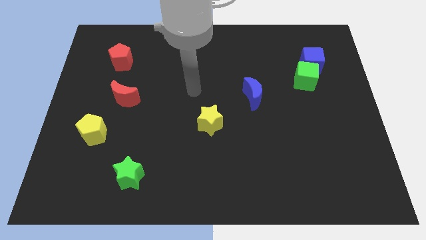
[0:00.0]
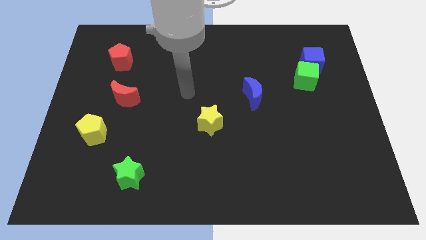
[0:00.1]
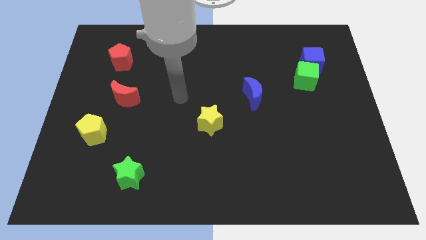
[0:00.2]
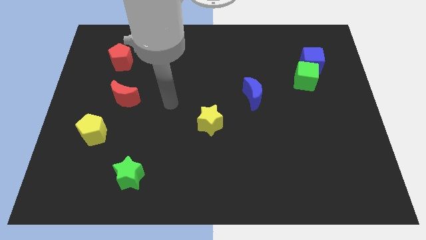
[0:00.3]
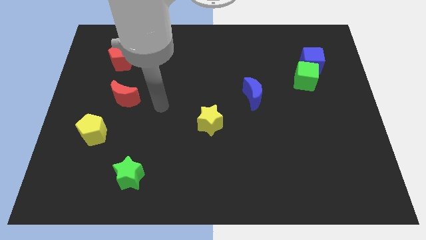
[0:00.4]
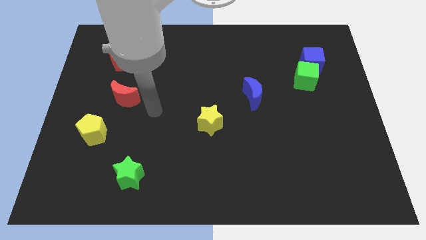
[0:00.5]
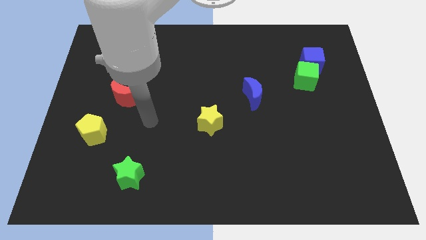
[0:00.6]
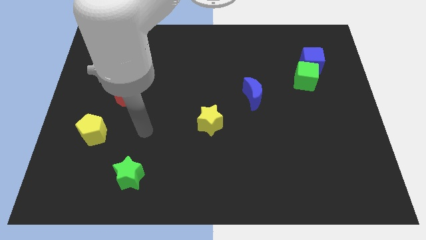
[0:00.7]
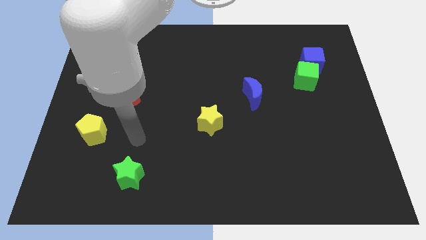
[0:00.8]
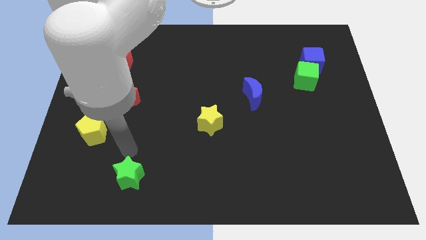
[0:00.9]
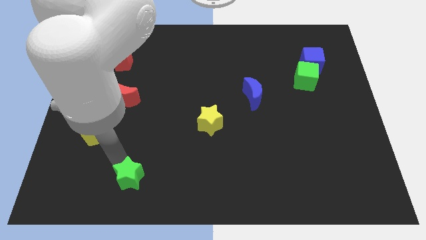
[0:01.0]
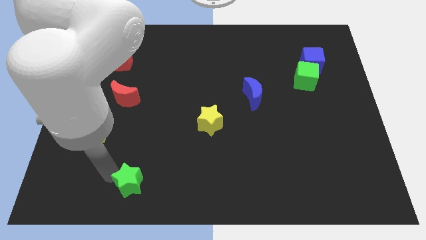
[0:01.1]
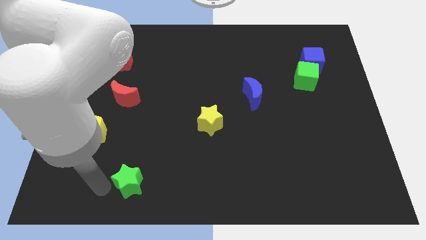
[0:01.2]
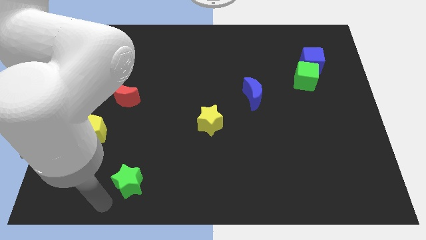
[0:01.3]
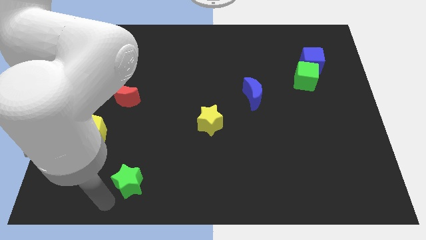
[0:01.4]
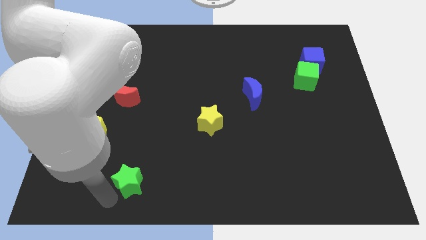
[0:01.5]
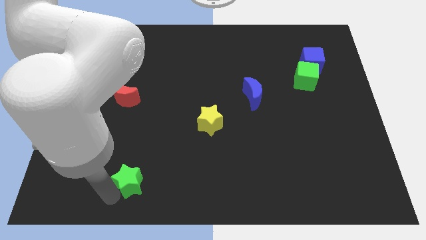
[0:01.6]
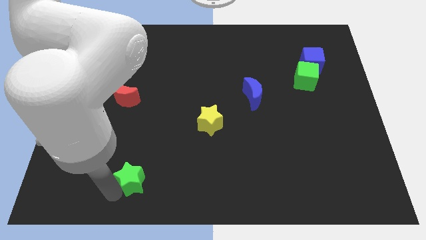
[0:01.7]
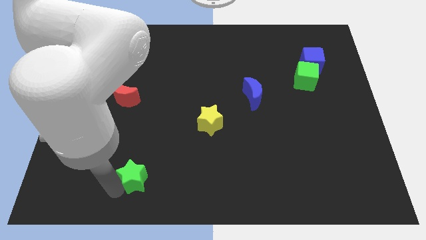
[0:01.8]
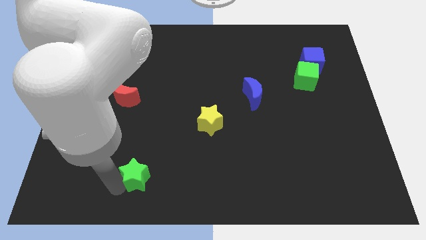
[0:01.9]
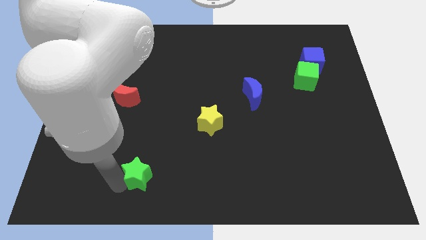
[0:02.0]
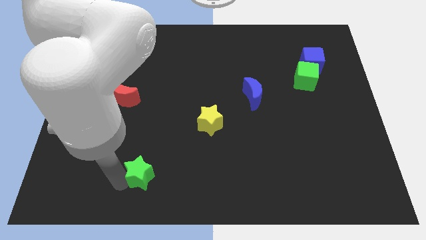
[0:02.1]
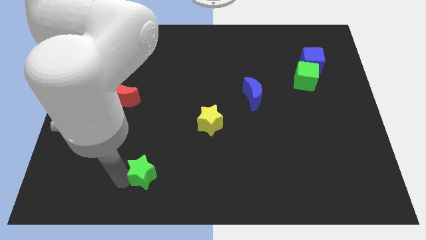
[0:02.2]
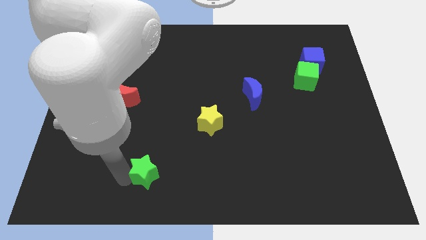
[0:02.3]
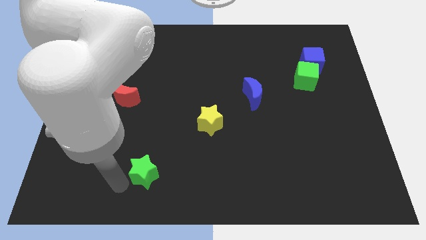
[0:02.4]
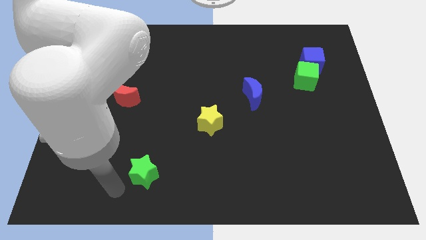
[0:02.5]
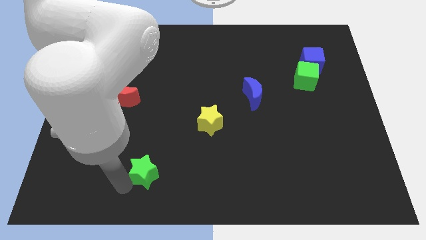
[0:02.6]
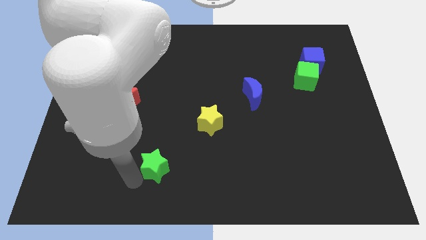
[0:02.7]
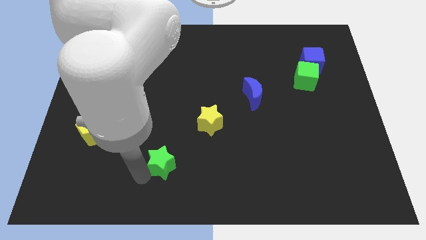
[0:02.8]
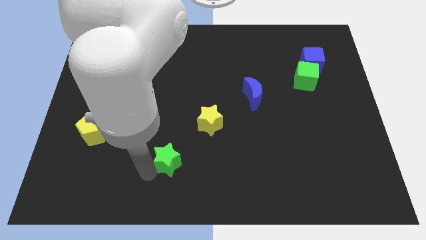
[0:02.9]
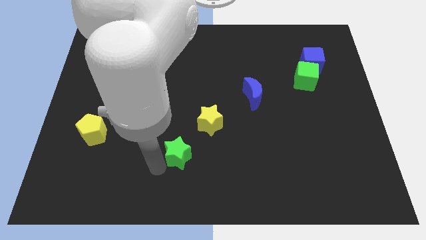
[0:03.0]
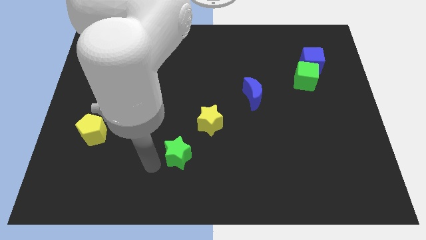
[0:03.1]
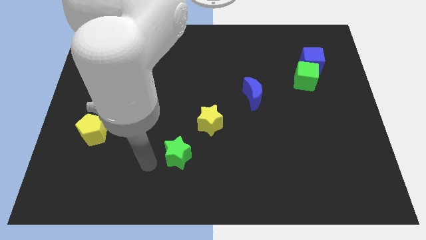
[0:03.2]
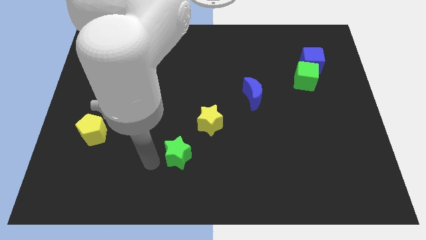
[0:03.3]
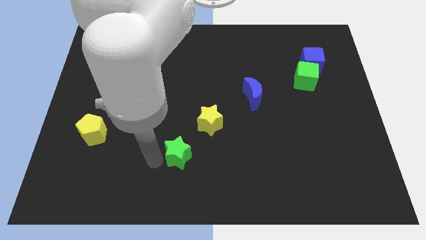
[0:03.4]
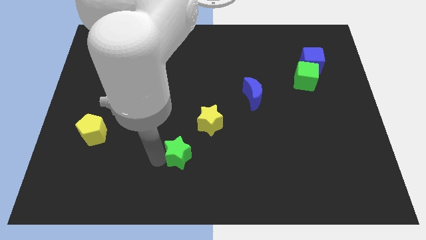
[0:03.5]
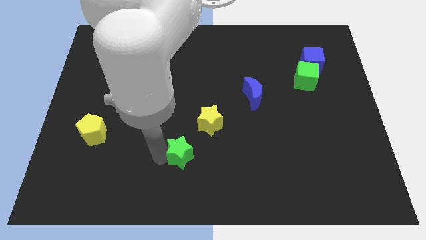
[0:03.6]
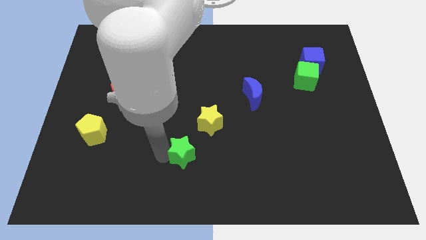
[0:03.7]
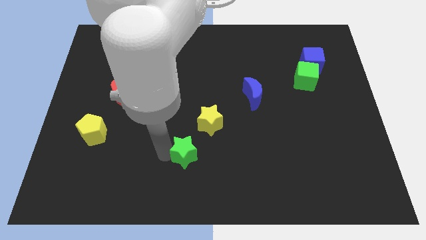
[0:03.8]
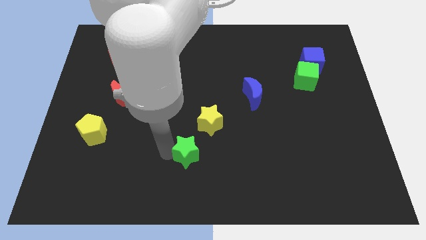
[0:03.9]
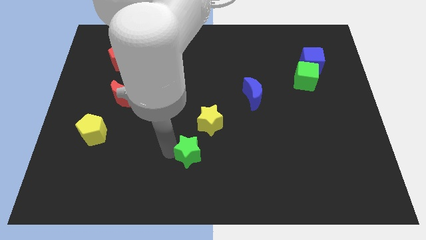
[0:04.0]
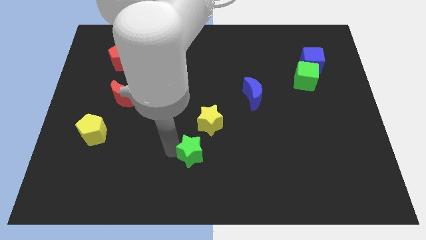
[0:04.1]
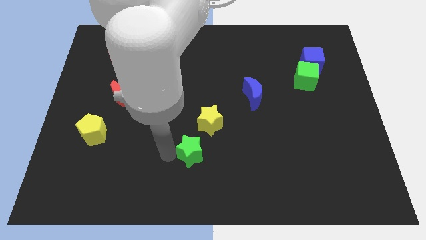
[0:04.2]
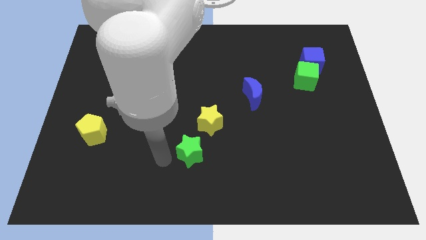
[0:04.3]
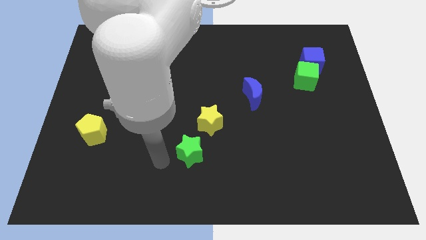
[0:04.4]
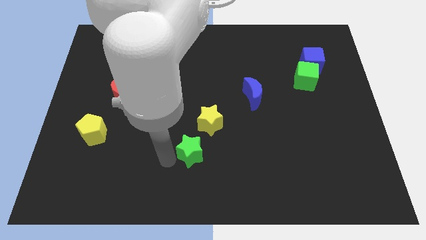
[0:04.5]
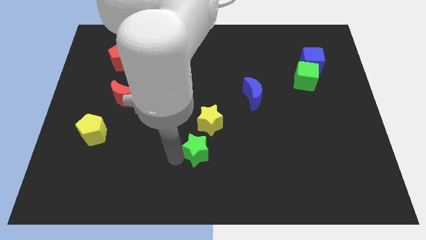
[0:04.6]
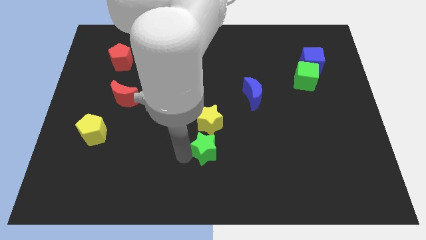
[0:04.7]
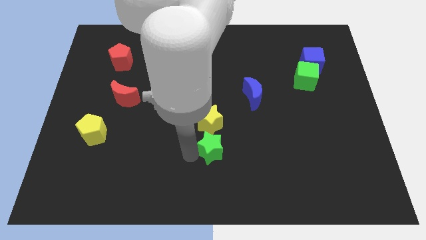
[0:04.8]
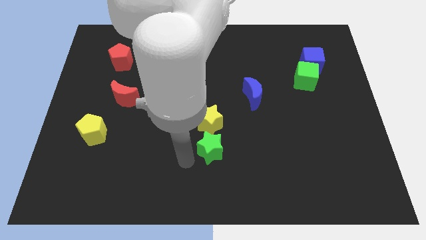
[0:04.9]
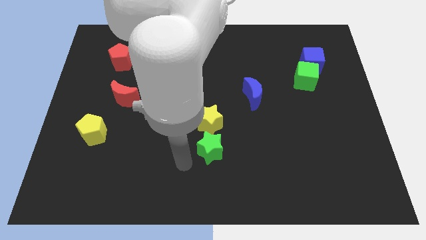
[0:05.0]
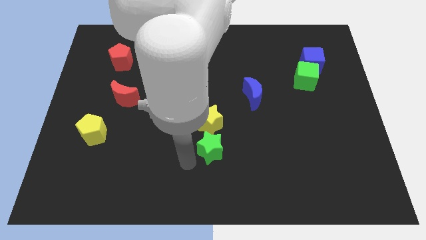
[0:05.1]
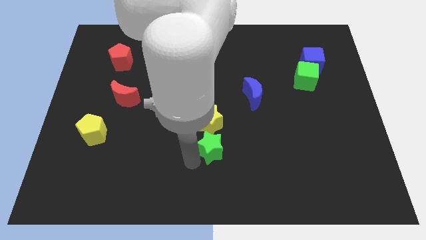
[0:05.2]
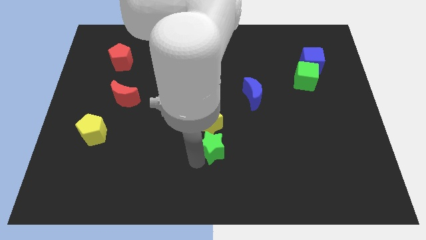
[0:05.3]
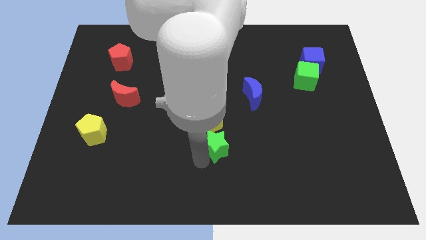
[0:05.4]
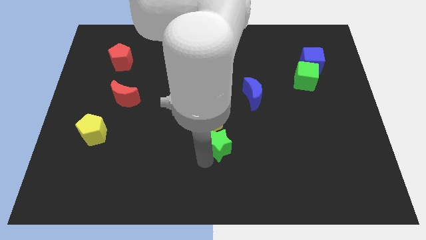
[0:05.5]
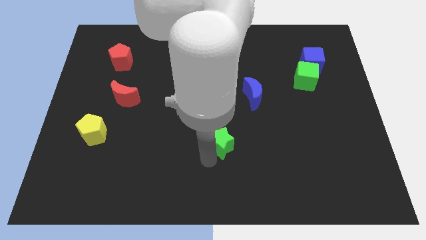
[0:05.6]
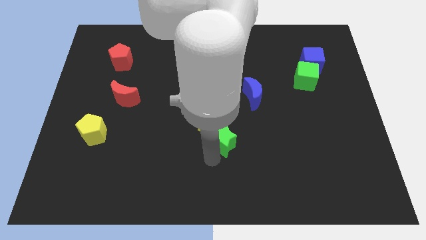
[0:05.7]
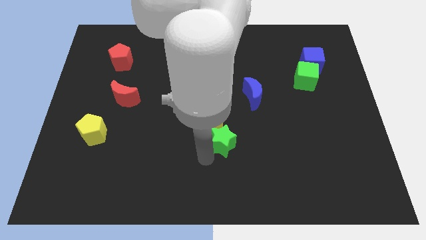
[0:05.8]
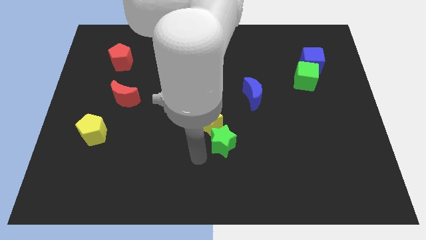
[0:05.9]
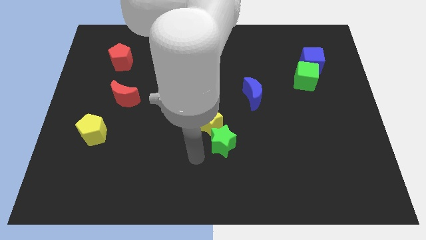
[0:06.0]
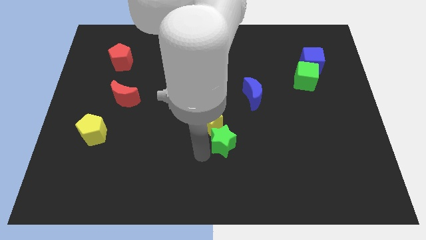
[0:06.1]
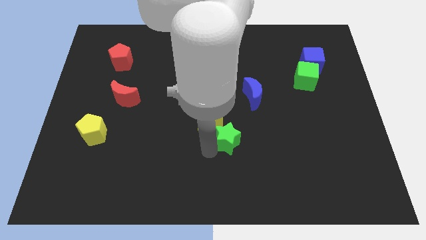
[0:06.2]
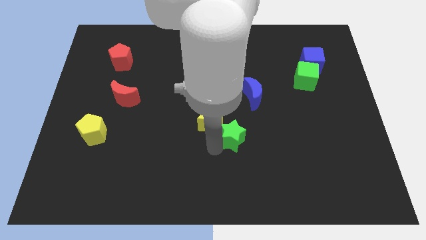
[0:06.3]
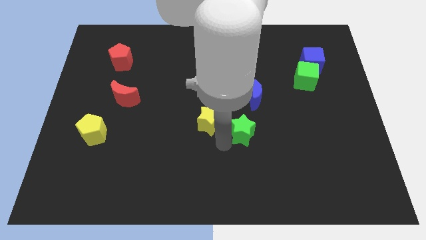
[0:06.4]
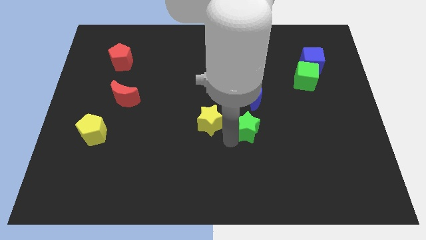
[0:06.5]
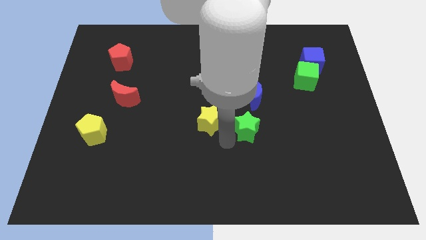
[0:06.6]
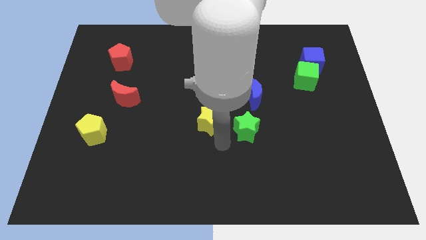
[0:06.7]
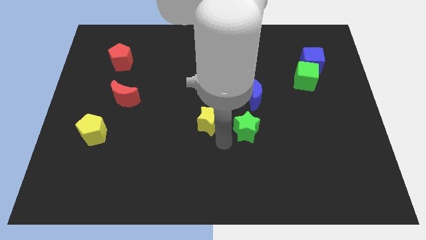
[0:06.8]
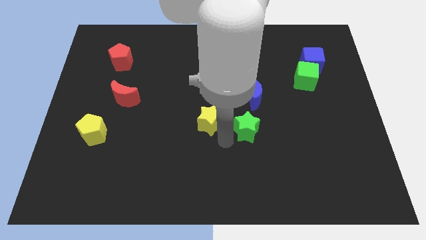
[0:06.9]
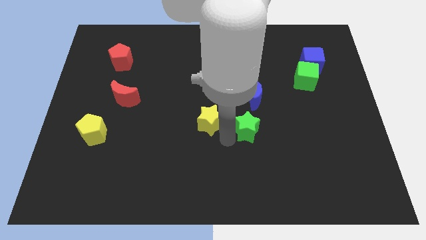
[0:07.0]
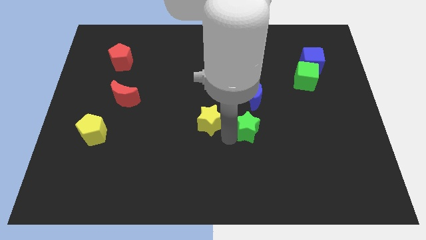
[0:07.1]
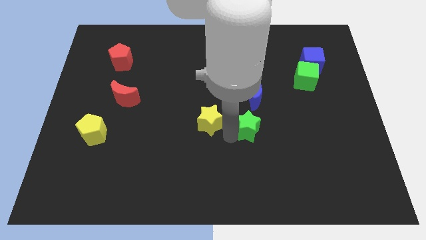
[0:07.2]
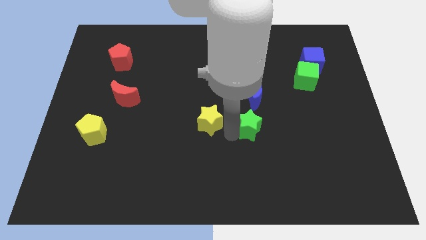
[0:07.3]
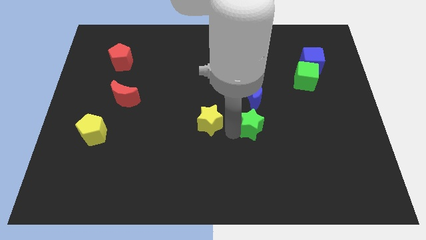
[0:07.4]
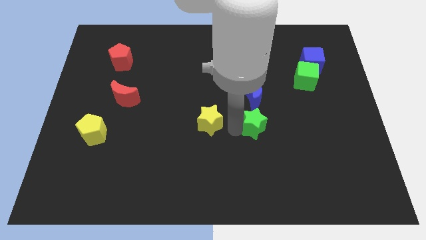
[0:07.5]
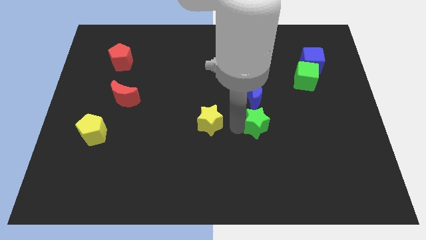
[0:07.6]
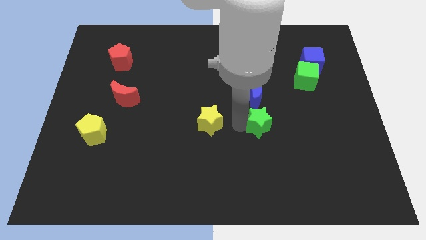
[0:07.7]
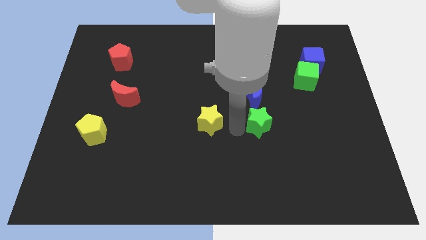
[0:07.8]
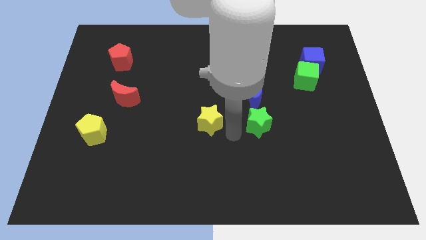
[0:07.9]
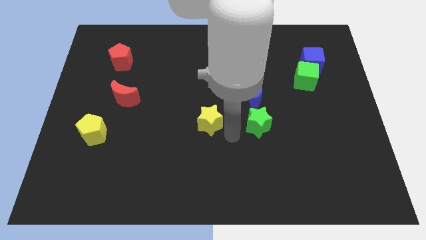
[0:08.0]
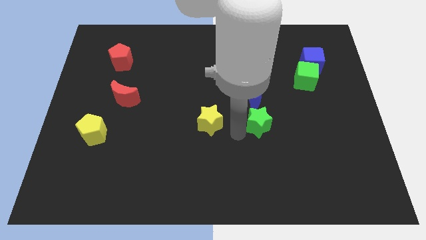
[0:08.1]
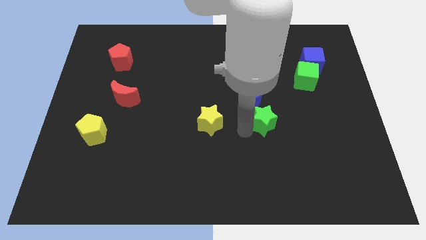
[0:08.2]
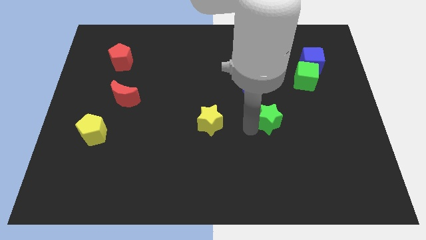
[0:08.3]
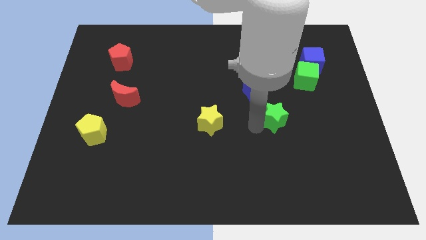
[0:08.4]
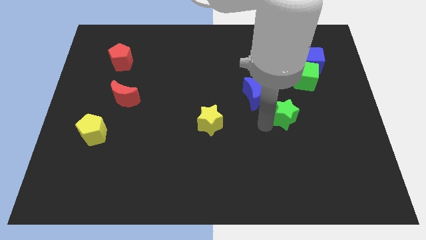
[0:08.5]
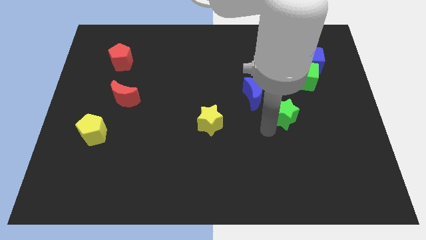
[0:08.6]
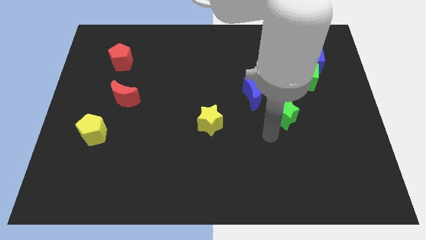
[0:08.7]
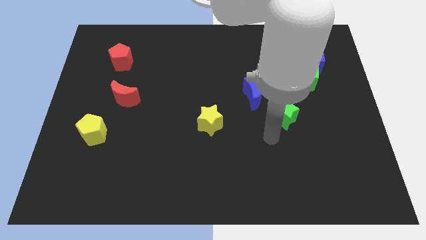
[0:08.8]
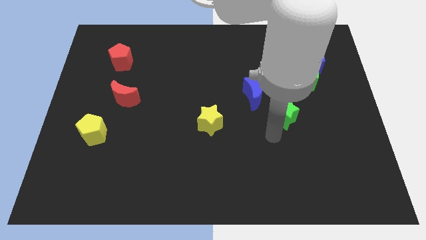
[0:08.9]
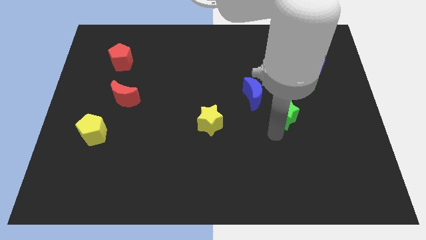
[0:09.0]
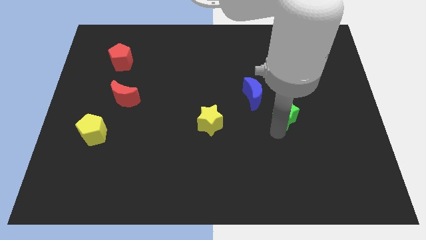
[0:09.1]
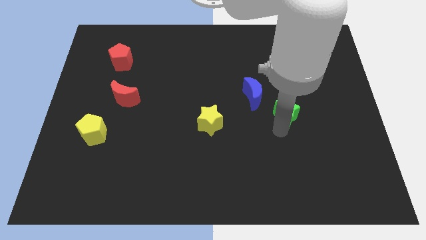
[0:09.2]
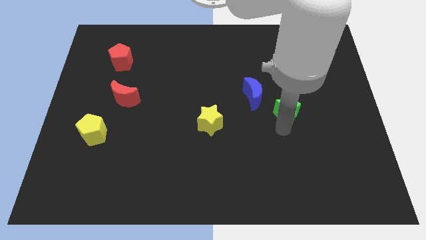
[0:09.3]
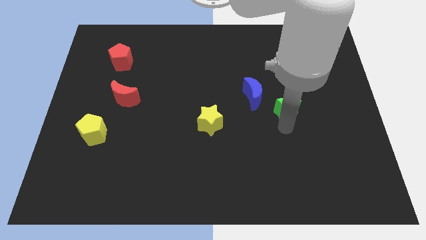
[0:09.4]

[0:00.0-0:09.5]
slide the green star right of the blue moon
